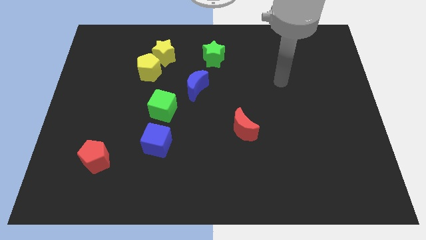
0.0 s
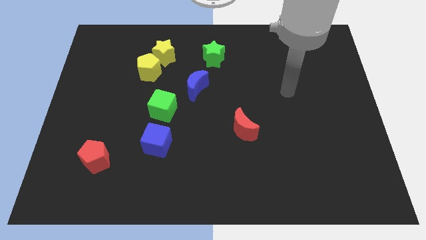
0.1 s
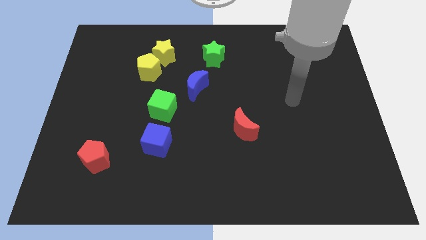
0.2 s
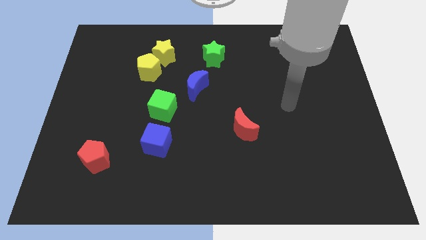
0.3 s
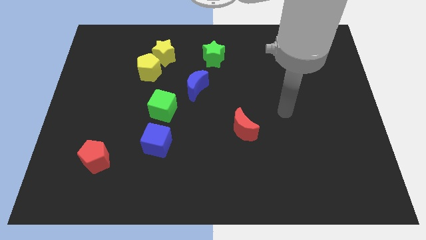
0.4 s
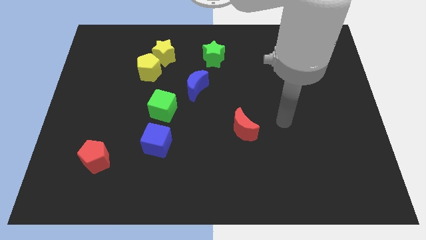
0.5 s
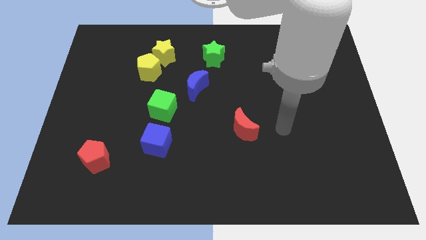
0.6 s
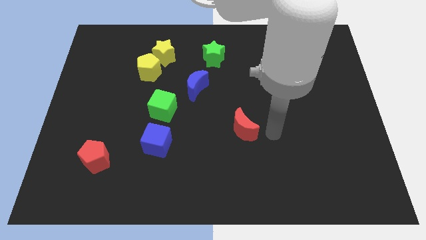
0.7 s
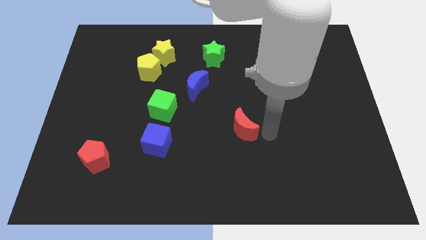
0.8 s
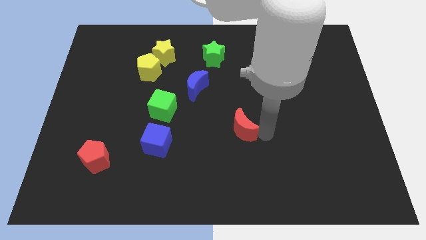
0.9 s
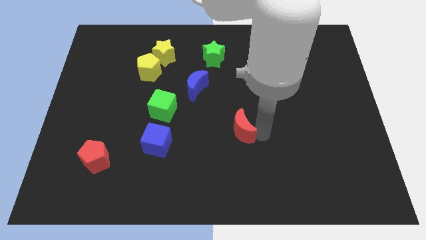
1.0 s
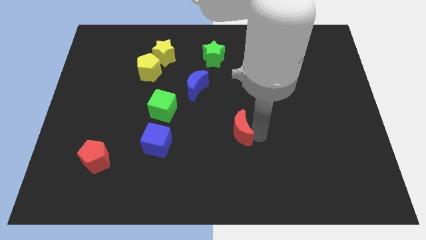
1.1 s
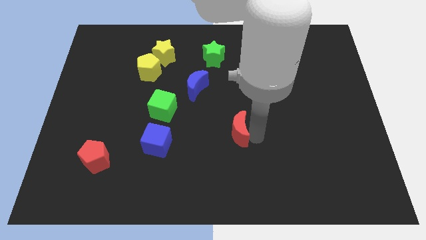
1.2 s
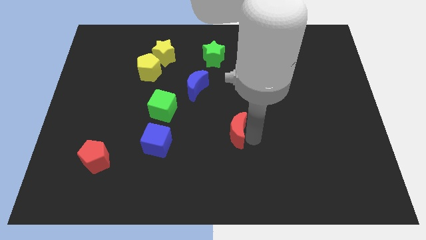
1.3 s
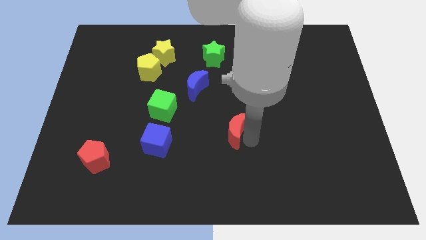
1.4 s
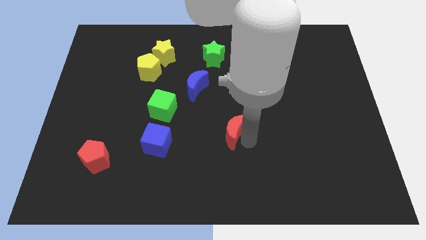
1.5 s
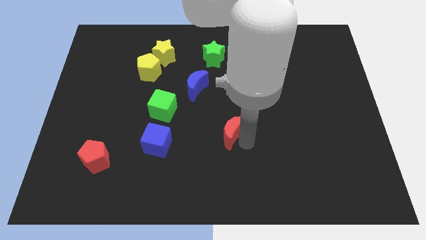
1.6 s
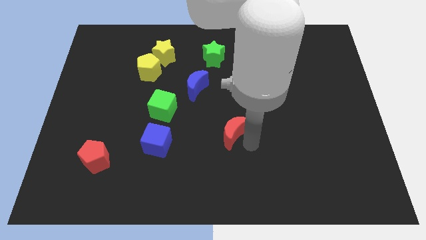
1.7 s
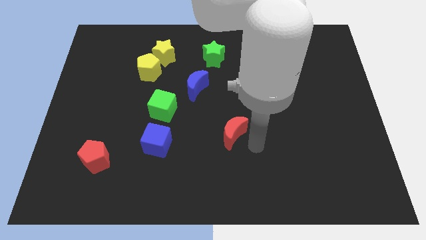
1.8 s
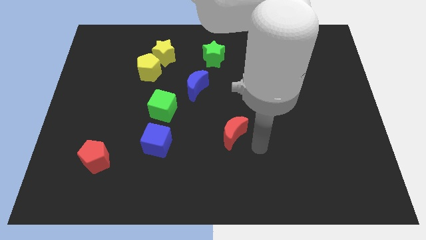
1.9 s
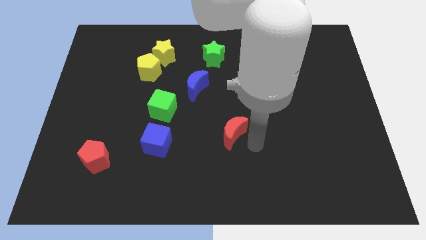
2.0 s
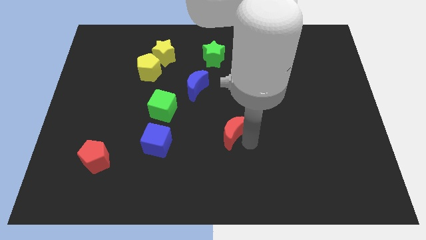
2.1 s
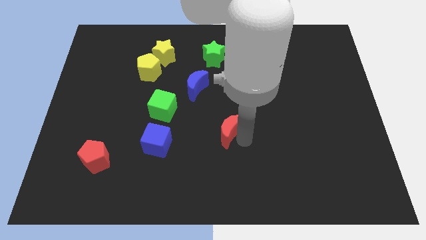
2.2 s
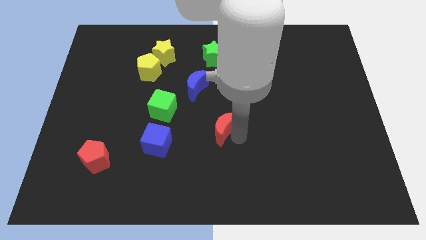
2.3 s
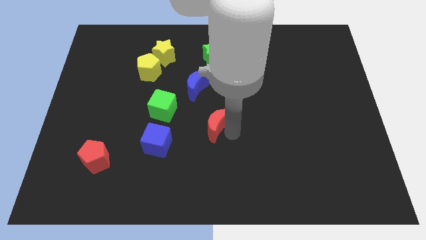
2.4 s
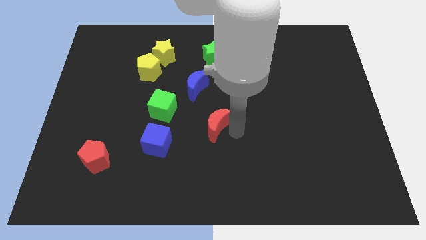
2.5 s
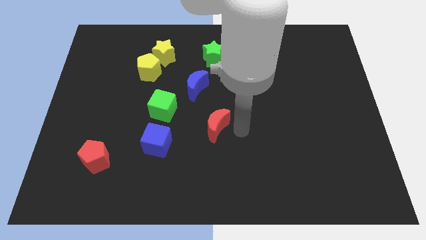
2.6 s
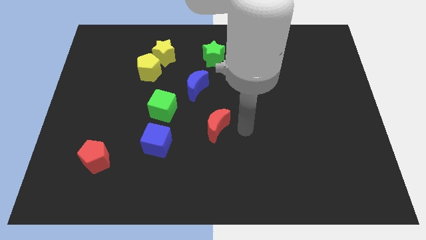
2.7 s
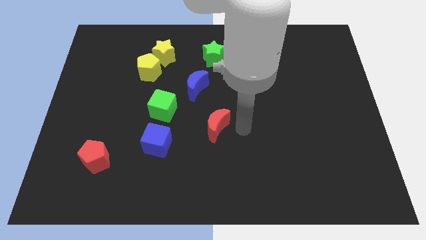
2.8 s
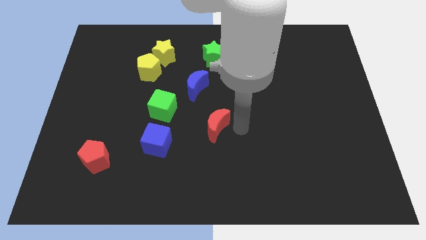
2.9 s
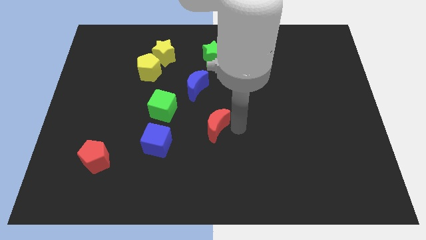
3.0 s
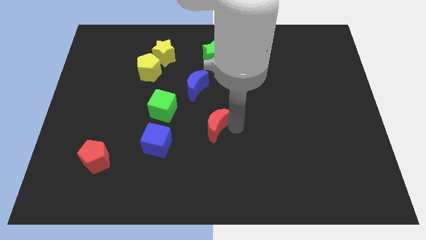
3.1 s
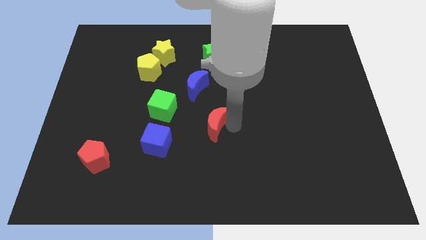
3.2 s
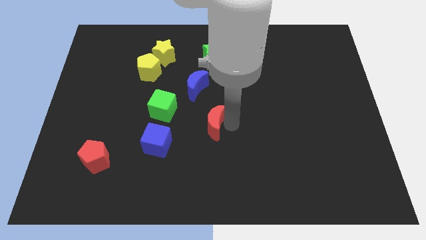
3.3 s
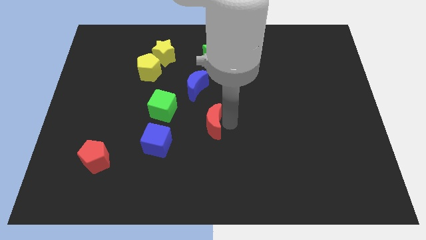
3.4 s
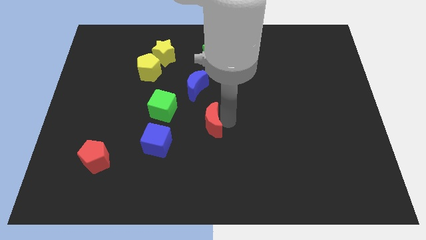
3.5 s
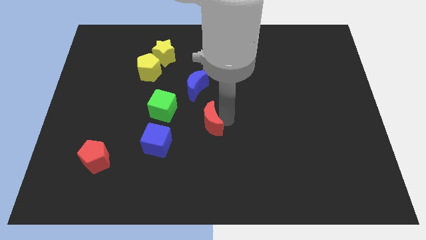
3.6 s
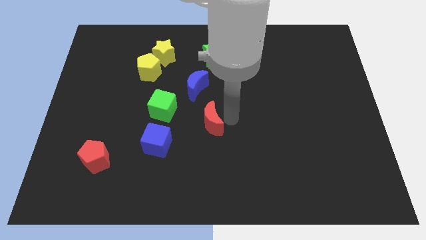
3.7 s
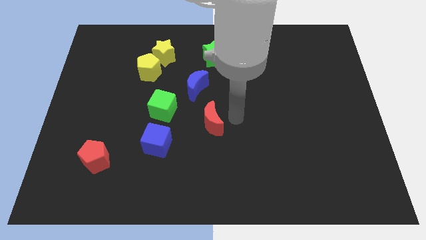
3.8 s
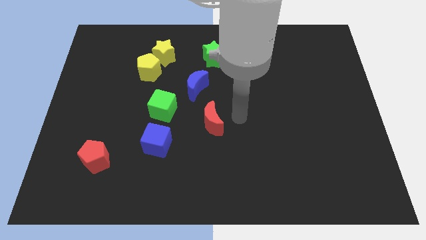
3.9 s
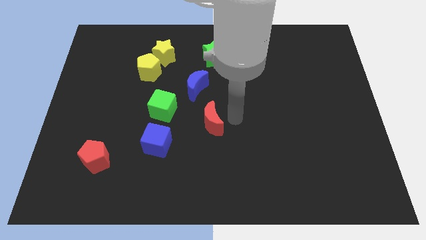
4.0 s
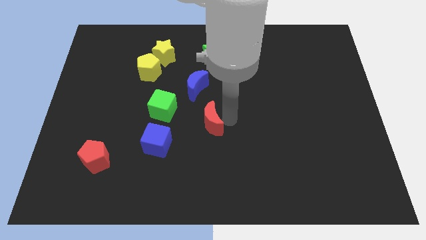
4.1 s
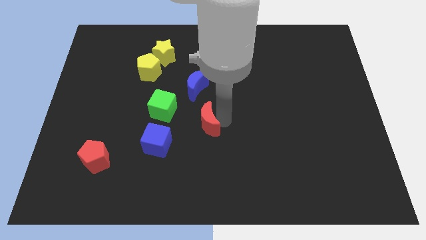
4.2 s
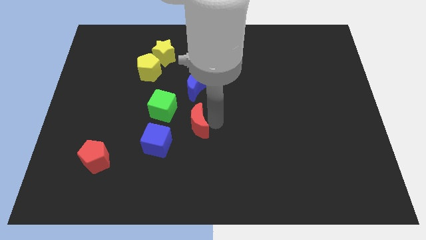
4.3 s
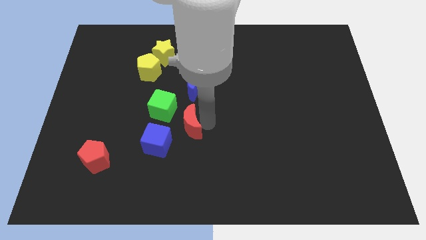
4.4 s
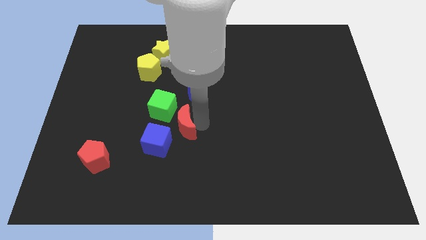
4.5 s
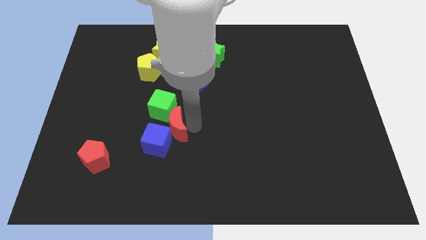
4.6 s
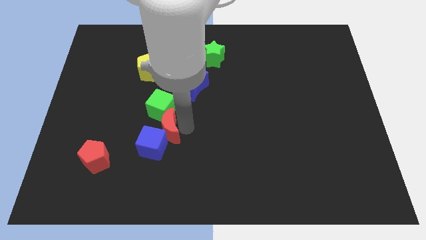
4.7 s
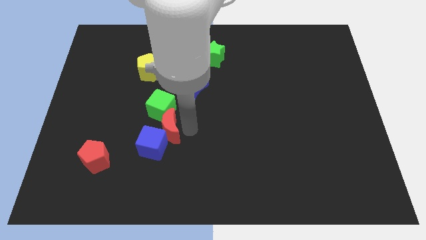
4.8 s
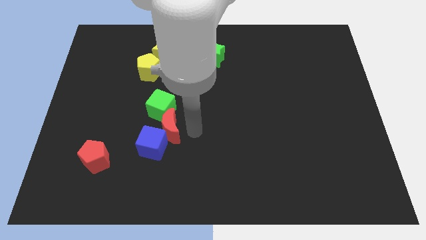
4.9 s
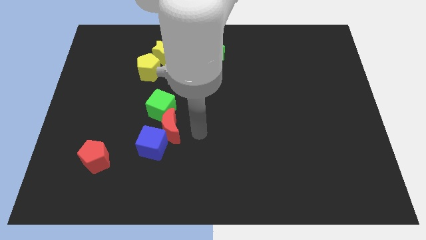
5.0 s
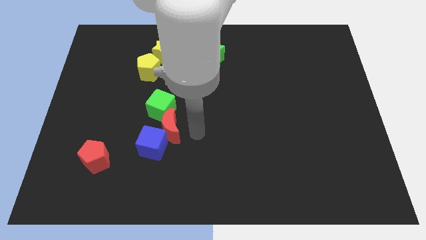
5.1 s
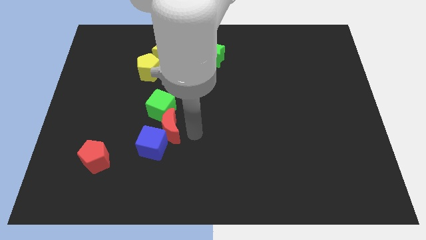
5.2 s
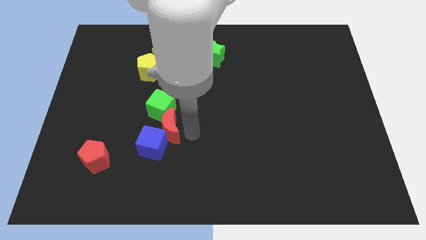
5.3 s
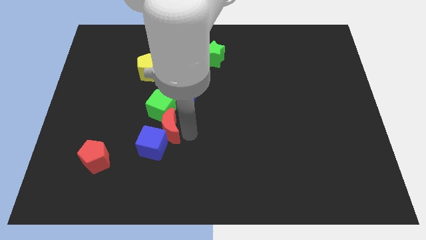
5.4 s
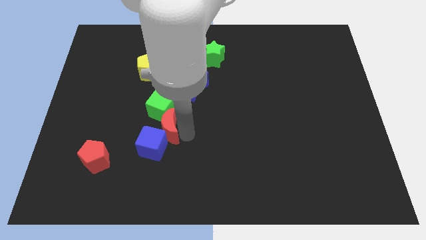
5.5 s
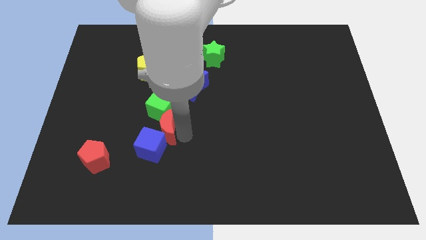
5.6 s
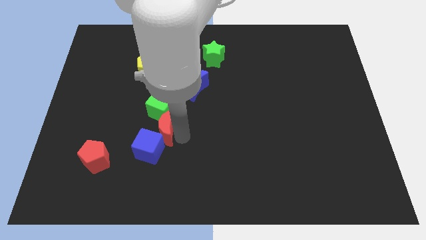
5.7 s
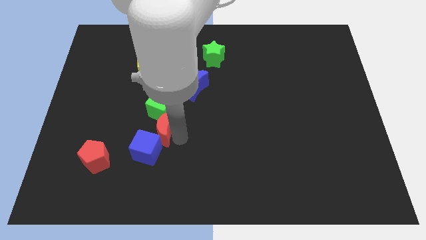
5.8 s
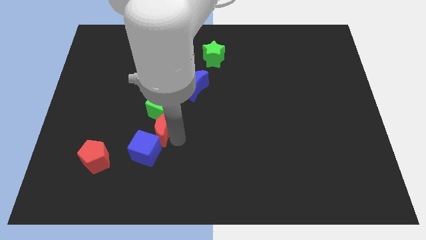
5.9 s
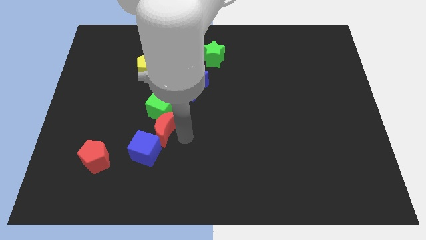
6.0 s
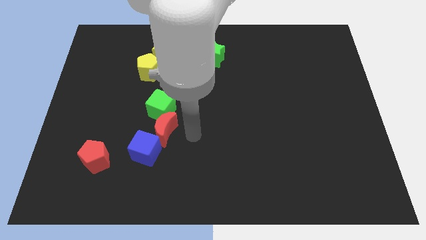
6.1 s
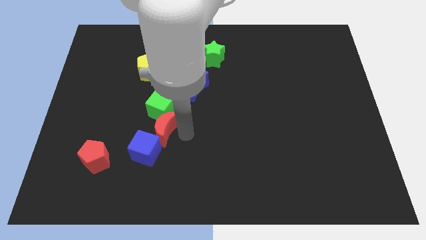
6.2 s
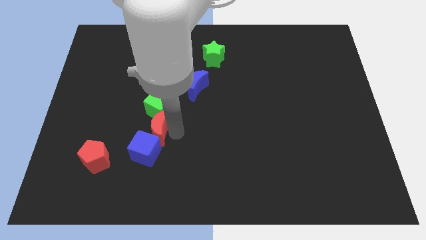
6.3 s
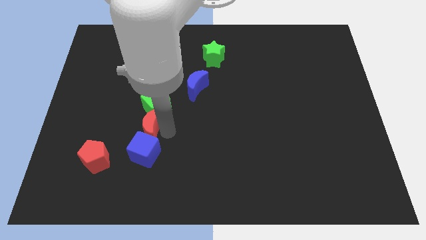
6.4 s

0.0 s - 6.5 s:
move the red moon to the left

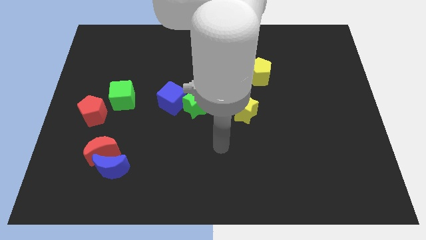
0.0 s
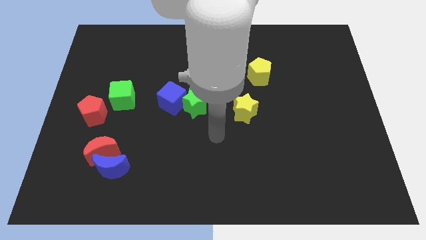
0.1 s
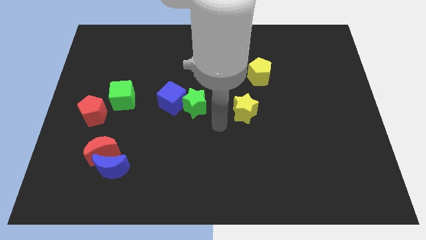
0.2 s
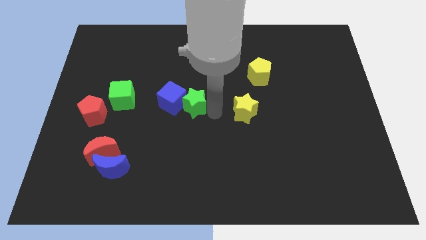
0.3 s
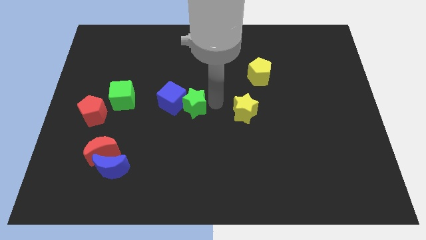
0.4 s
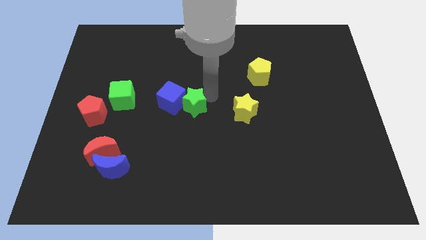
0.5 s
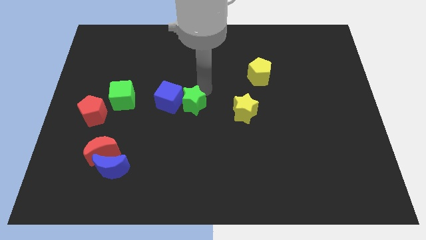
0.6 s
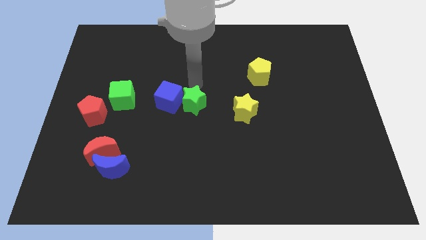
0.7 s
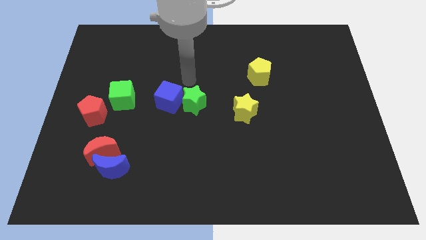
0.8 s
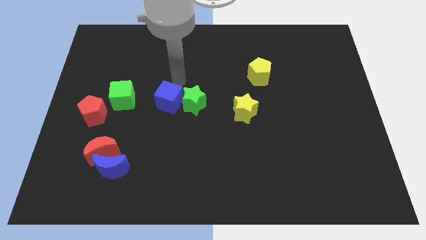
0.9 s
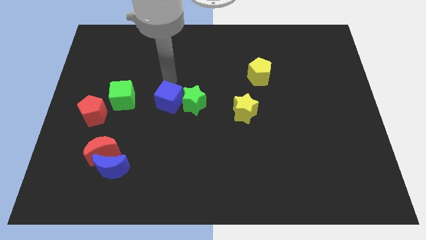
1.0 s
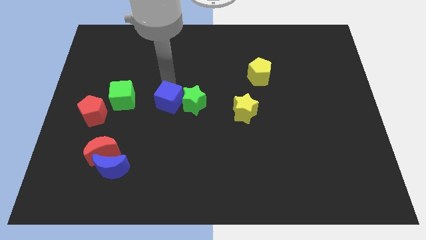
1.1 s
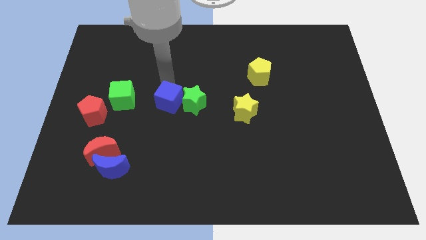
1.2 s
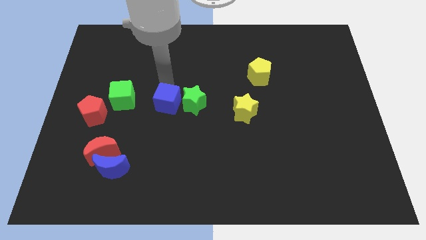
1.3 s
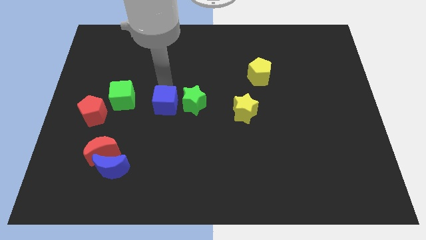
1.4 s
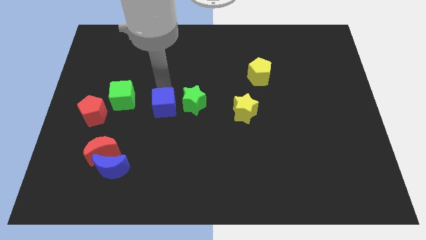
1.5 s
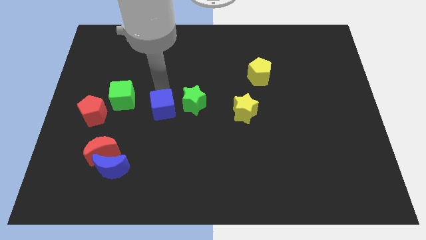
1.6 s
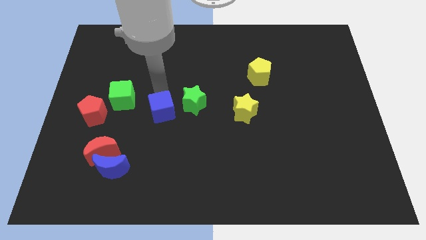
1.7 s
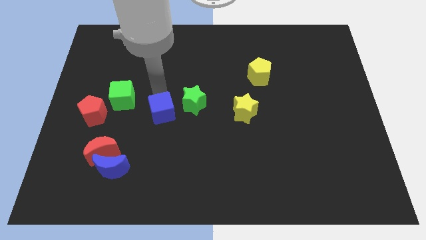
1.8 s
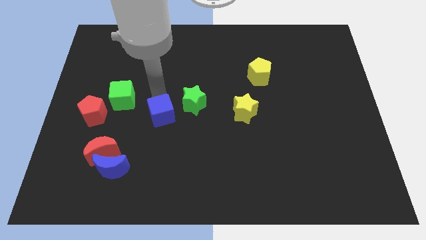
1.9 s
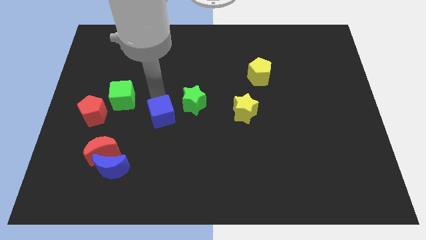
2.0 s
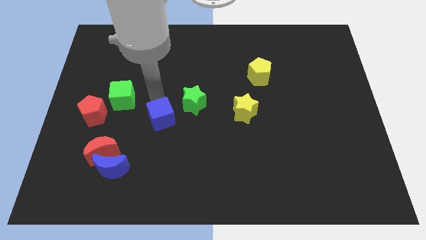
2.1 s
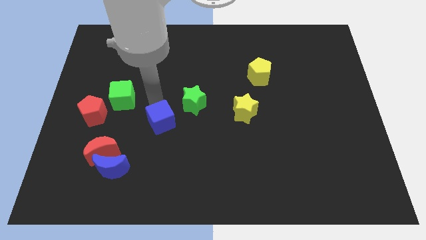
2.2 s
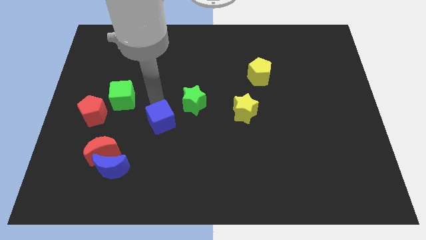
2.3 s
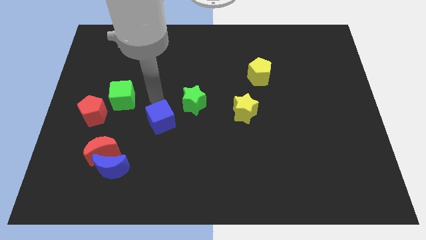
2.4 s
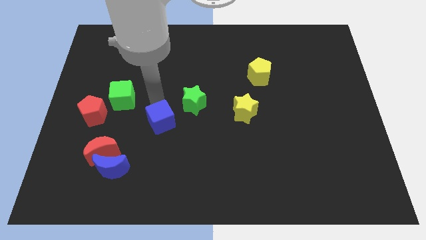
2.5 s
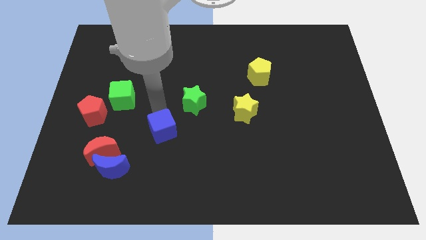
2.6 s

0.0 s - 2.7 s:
slide the blue cube a little down
